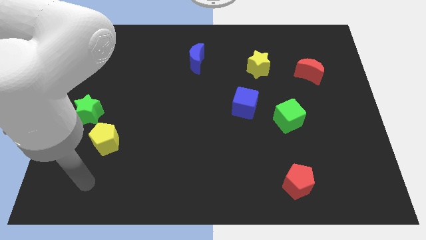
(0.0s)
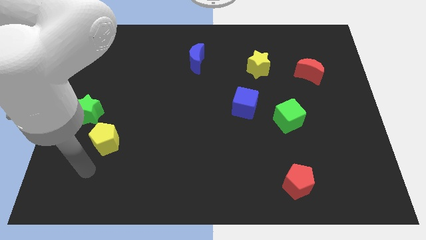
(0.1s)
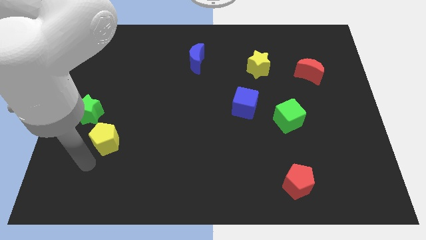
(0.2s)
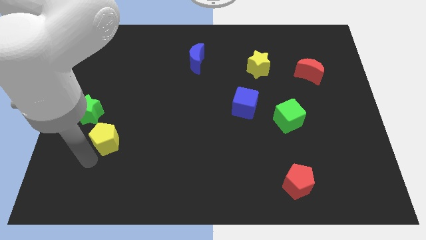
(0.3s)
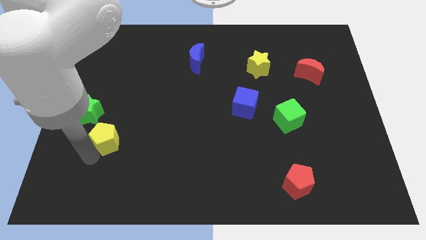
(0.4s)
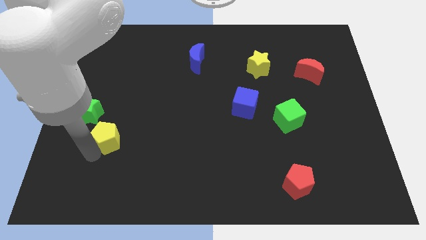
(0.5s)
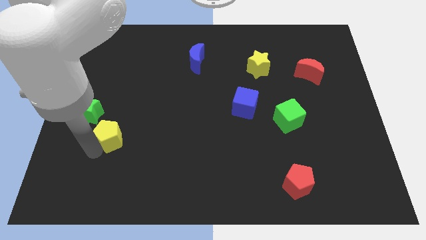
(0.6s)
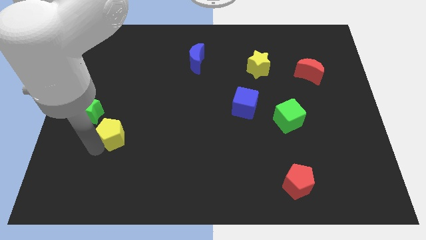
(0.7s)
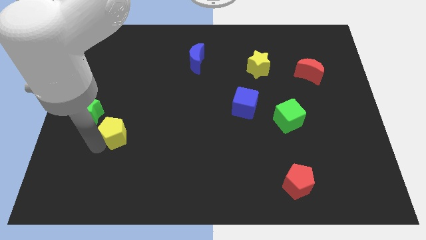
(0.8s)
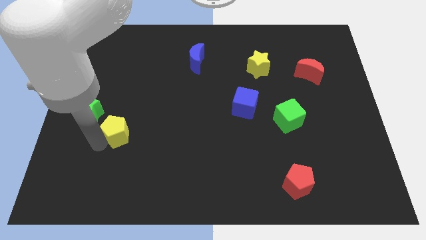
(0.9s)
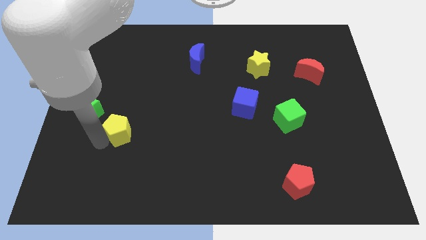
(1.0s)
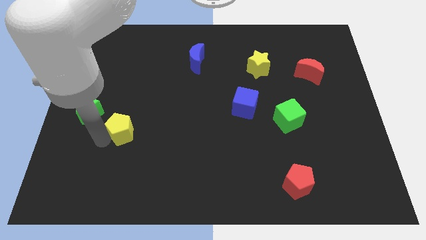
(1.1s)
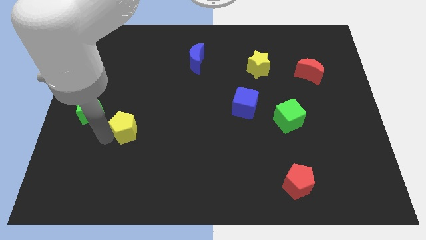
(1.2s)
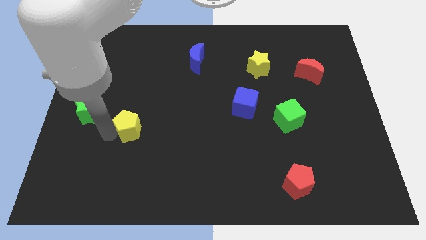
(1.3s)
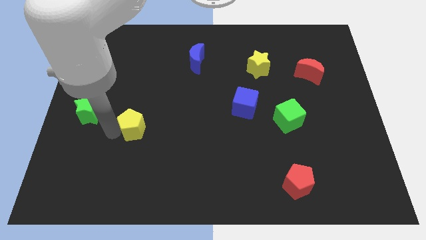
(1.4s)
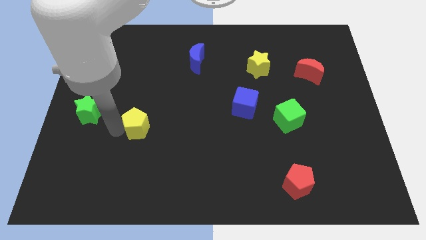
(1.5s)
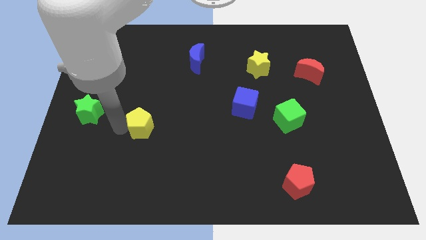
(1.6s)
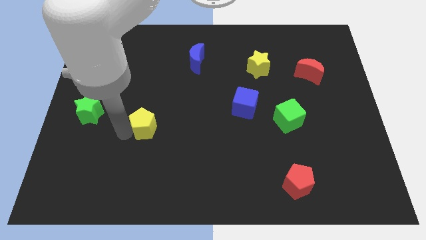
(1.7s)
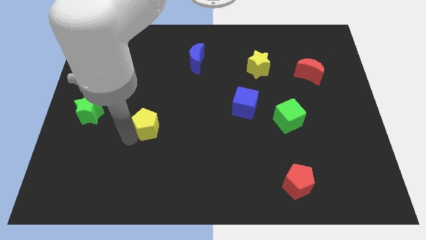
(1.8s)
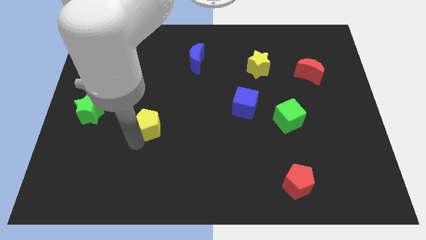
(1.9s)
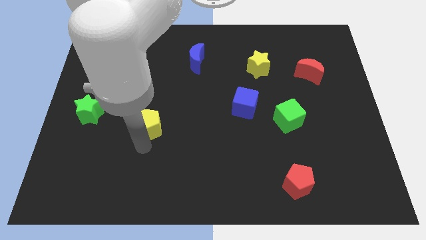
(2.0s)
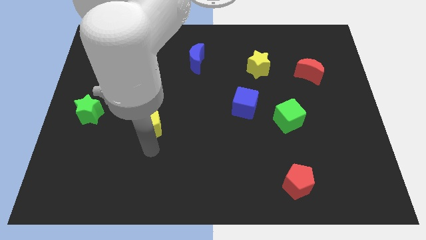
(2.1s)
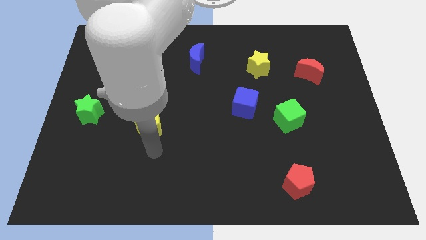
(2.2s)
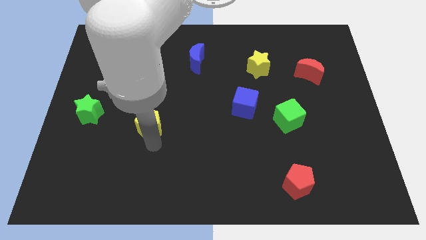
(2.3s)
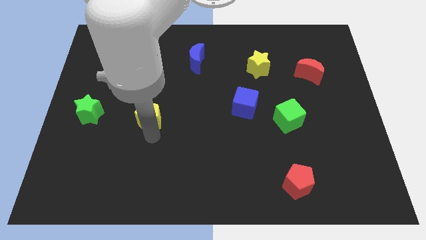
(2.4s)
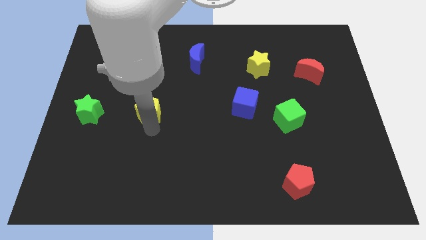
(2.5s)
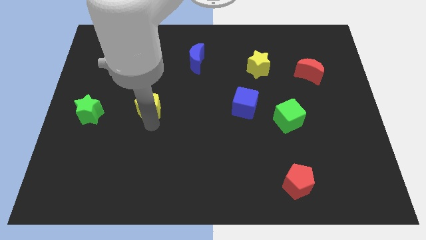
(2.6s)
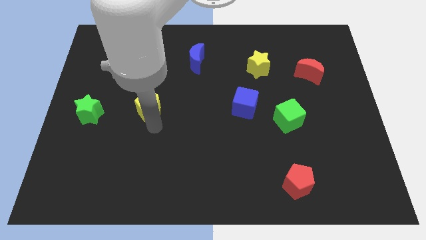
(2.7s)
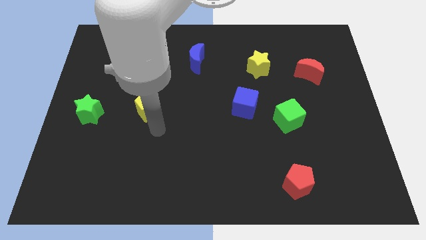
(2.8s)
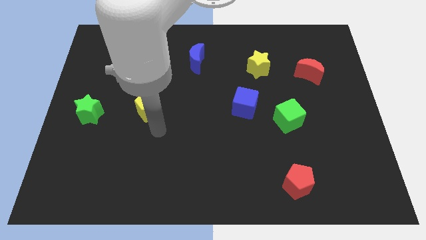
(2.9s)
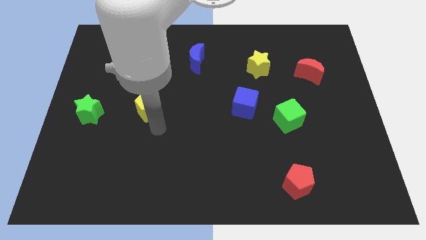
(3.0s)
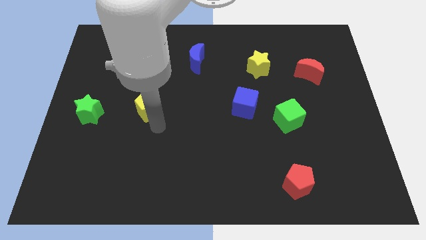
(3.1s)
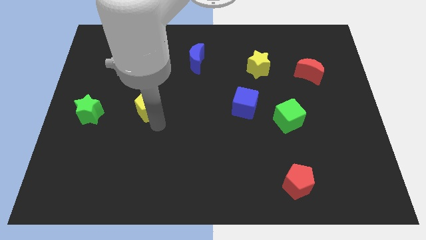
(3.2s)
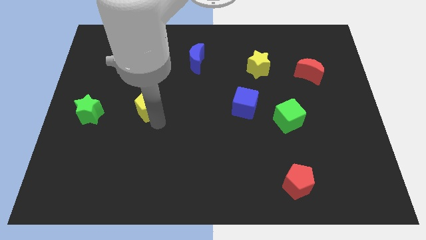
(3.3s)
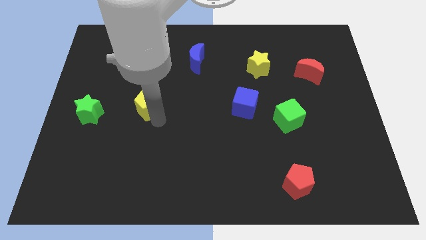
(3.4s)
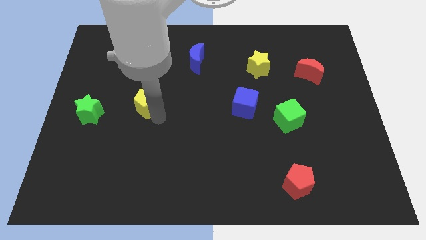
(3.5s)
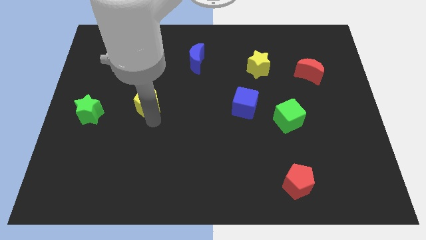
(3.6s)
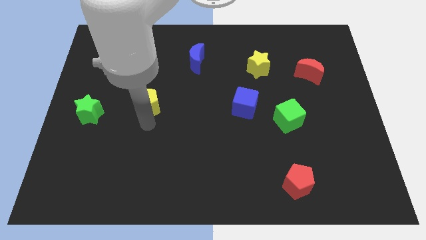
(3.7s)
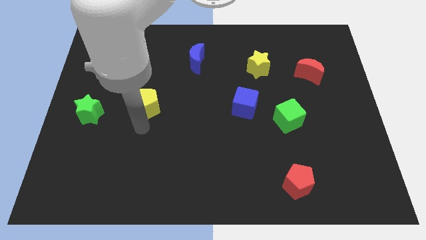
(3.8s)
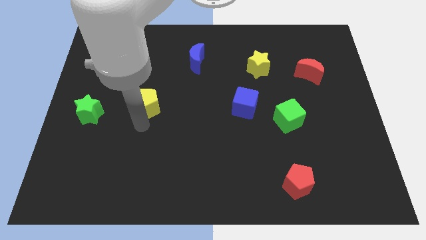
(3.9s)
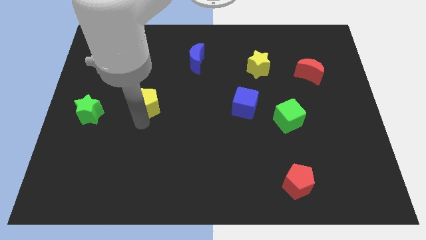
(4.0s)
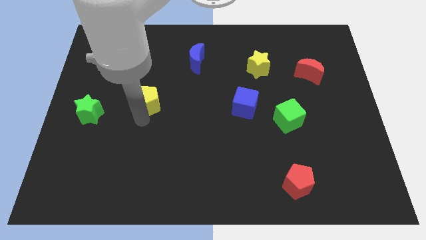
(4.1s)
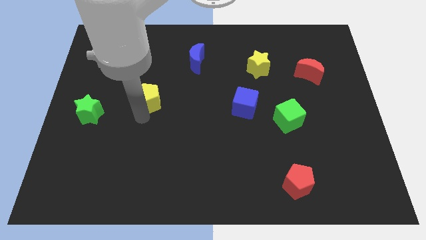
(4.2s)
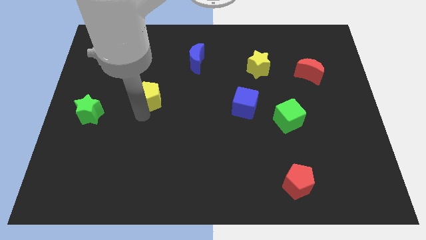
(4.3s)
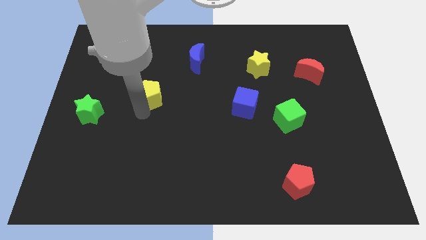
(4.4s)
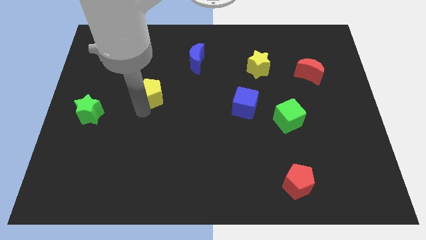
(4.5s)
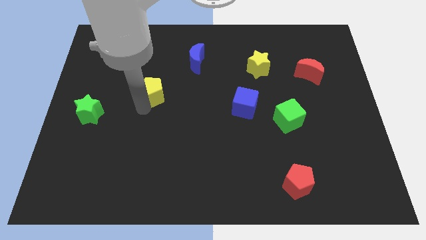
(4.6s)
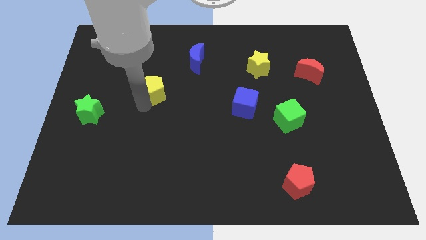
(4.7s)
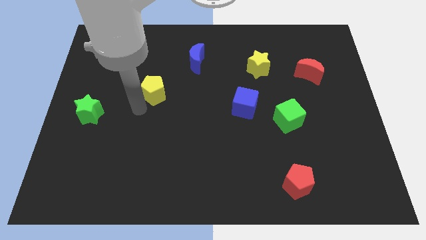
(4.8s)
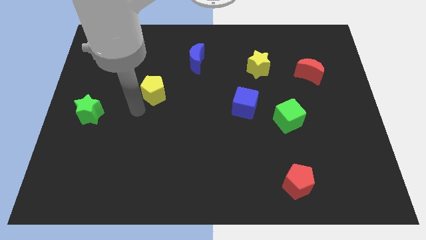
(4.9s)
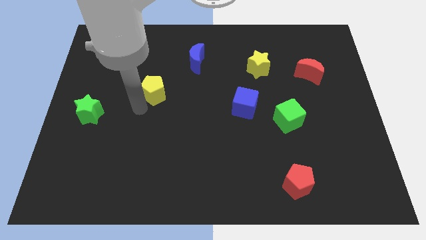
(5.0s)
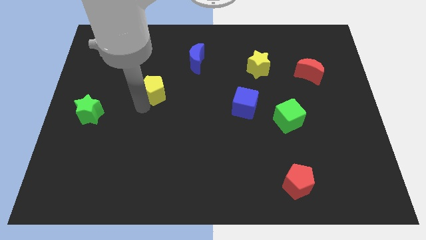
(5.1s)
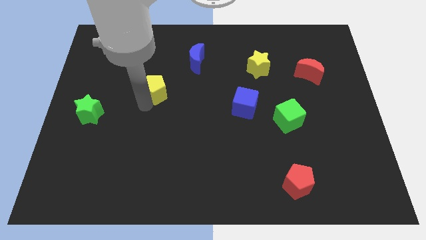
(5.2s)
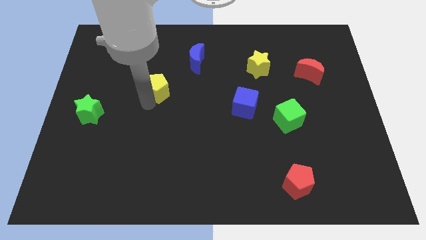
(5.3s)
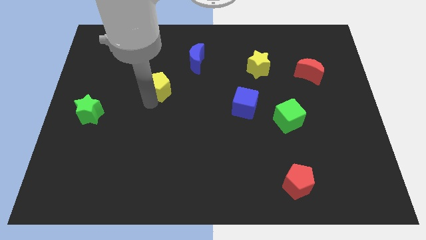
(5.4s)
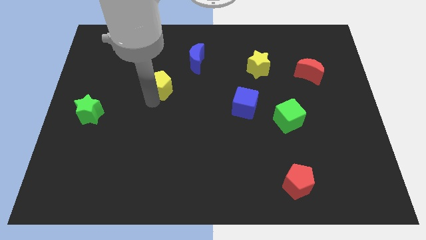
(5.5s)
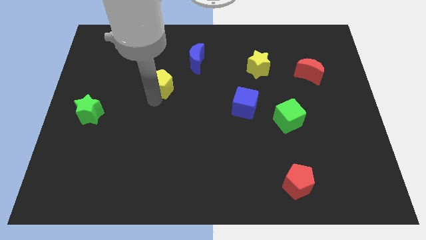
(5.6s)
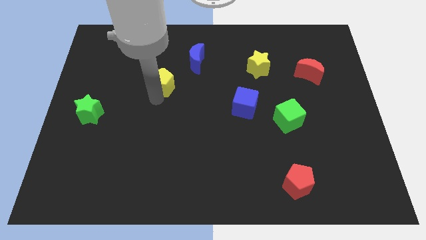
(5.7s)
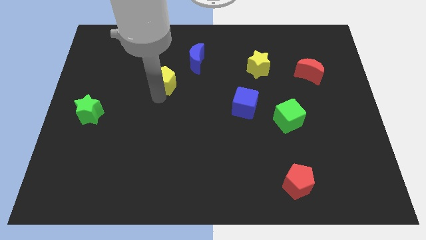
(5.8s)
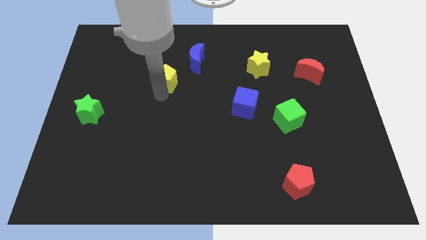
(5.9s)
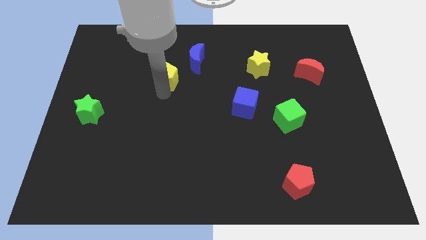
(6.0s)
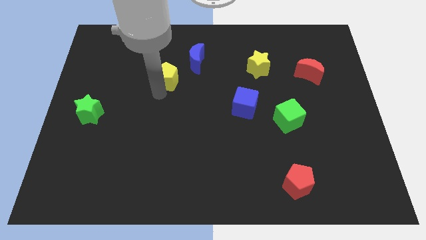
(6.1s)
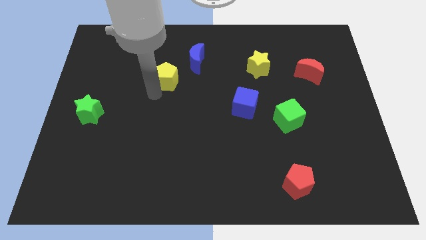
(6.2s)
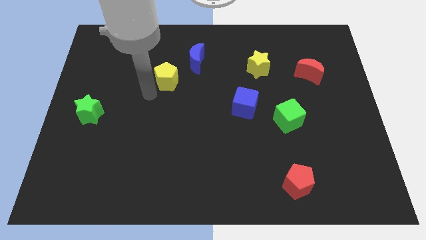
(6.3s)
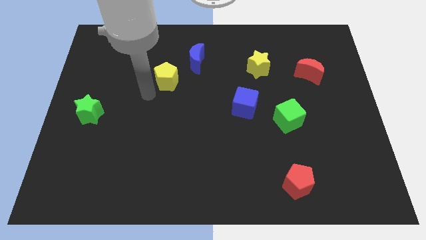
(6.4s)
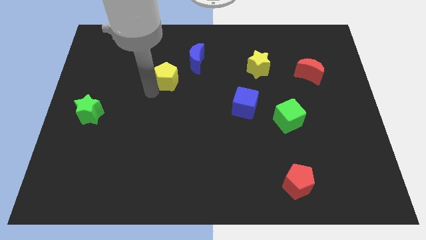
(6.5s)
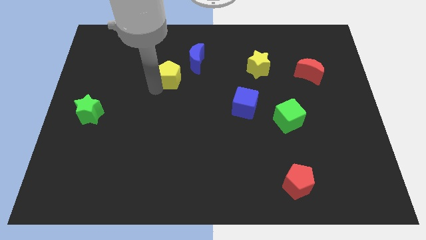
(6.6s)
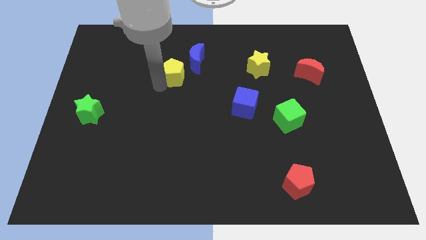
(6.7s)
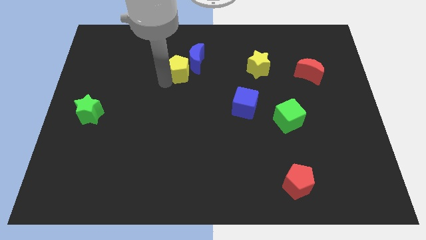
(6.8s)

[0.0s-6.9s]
put the yellow pentagon towards the blue moon

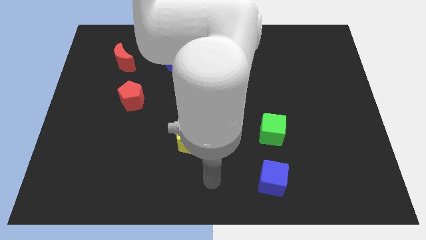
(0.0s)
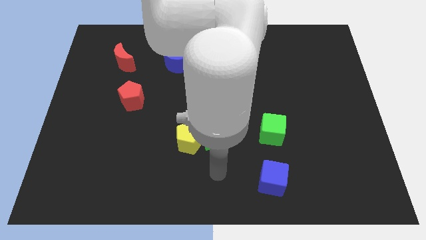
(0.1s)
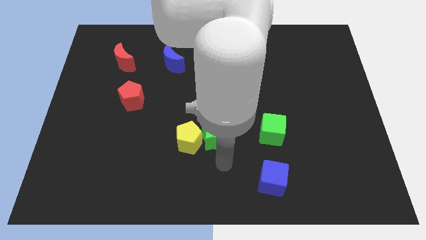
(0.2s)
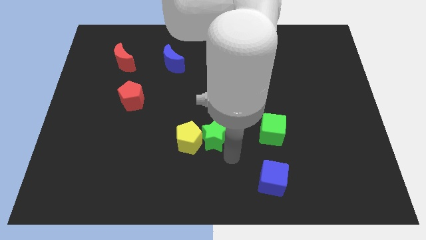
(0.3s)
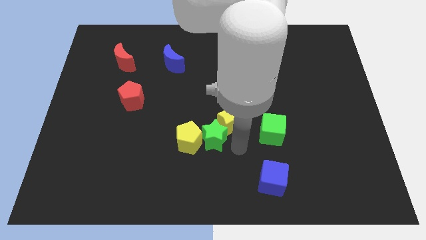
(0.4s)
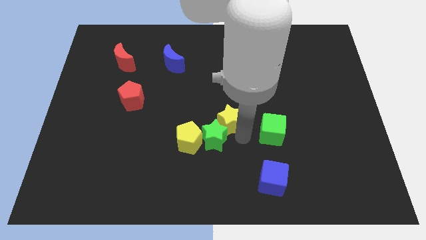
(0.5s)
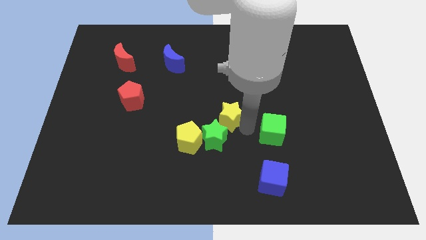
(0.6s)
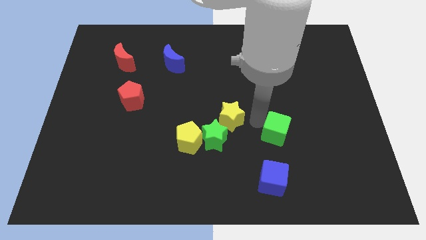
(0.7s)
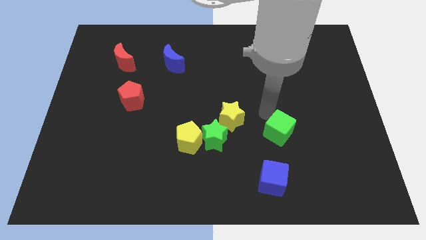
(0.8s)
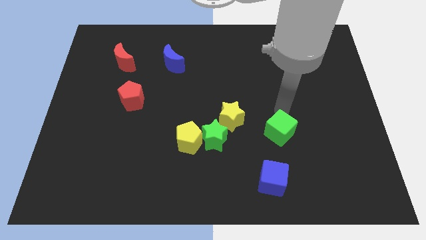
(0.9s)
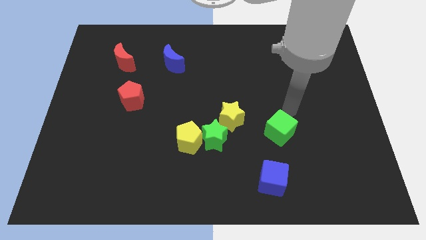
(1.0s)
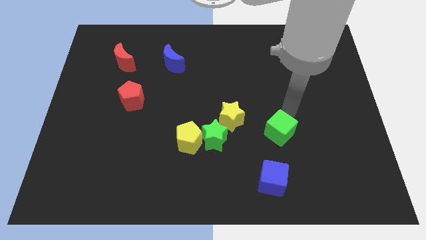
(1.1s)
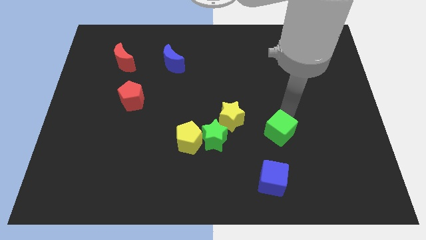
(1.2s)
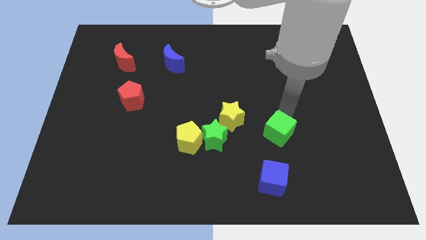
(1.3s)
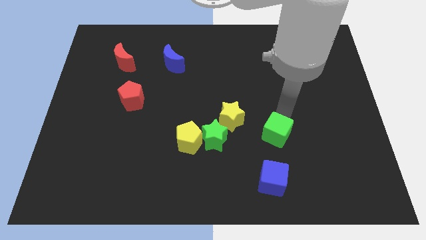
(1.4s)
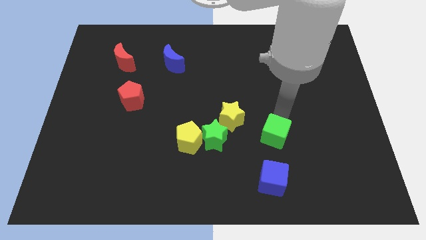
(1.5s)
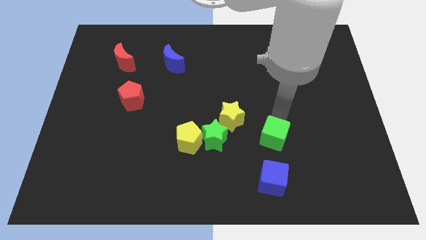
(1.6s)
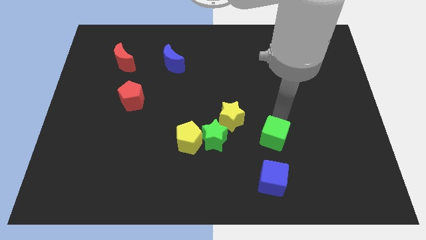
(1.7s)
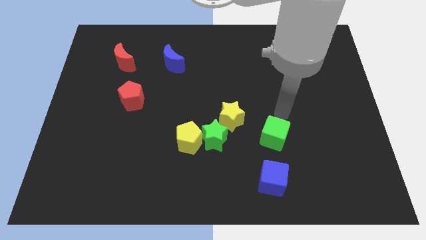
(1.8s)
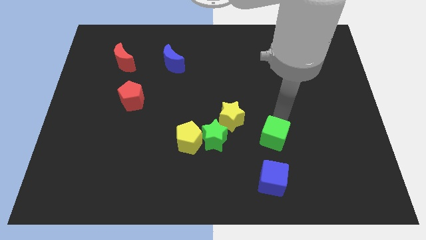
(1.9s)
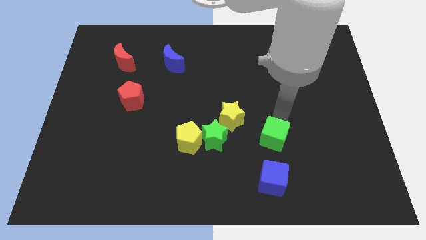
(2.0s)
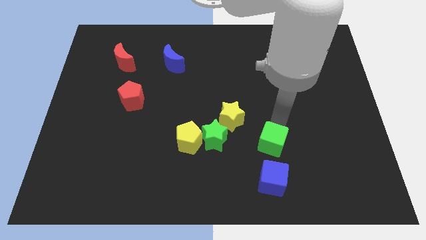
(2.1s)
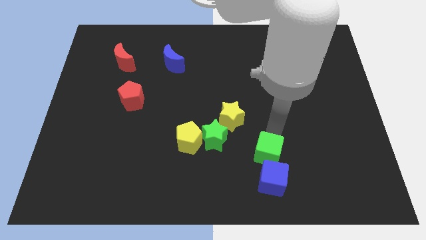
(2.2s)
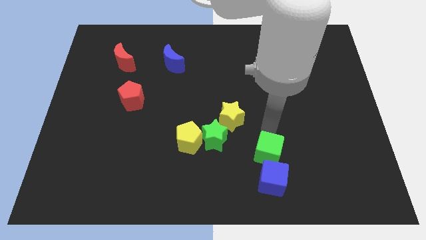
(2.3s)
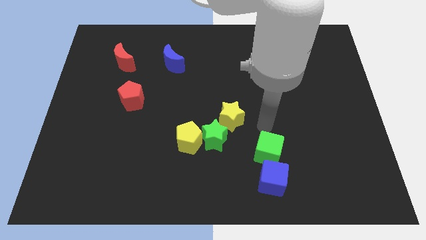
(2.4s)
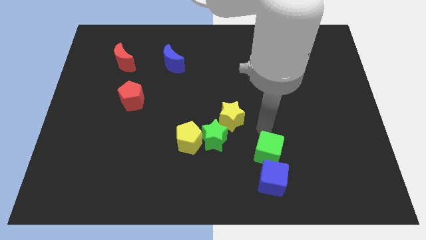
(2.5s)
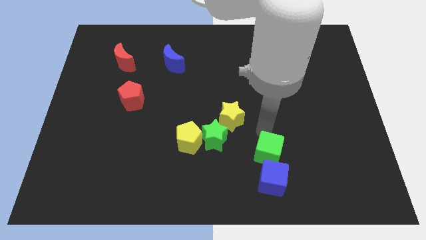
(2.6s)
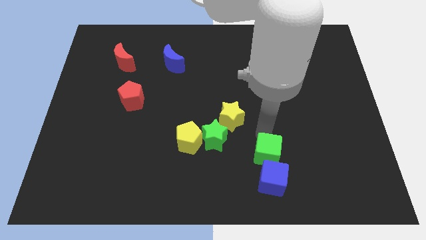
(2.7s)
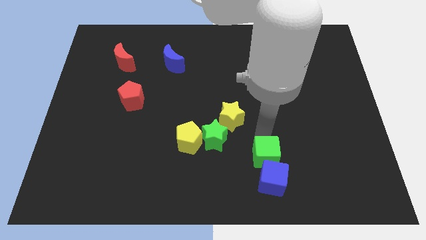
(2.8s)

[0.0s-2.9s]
move the green cube to the blue cube
